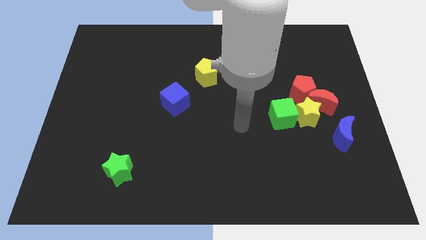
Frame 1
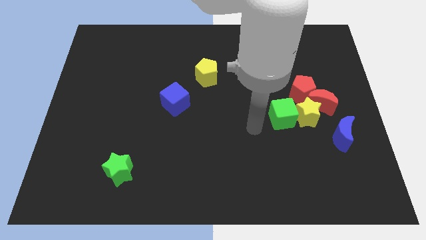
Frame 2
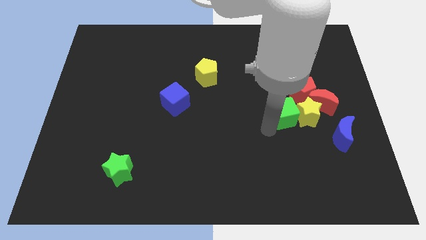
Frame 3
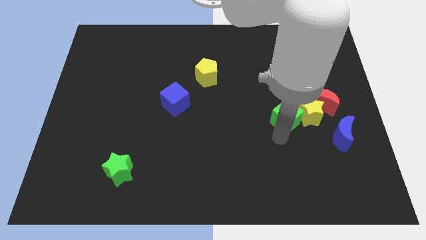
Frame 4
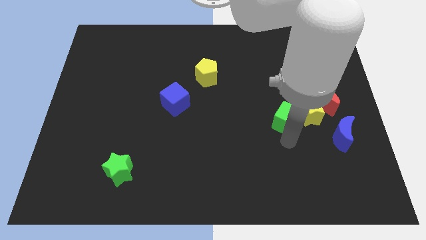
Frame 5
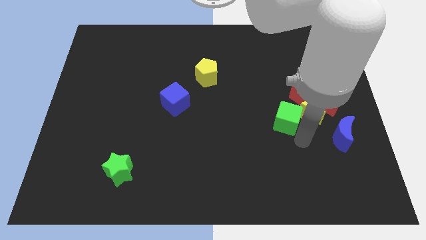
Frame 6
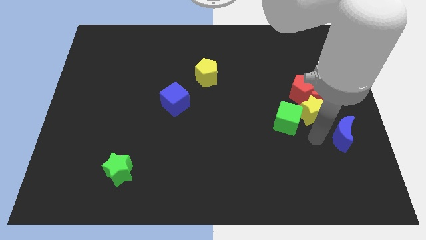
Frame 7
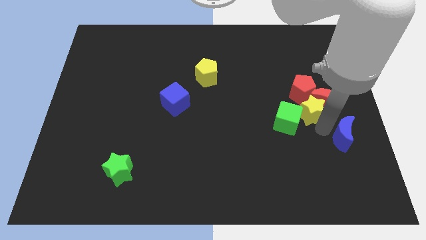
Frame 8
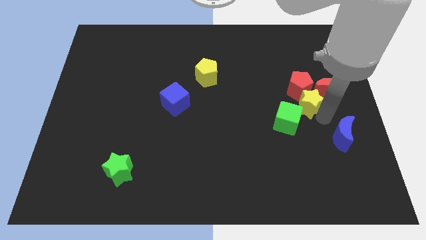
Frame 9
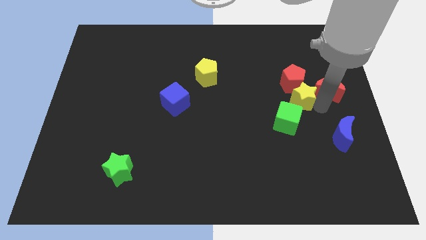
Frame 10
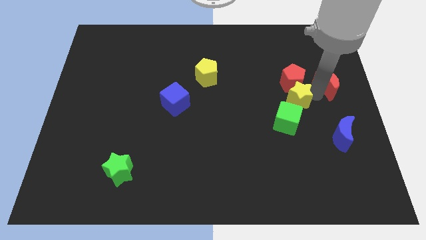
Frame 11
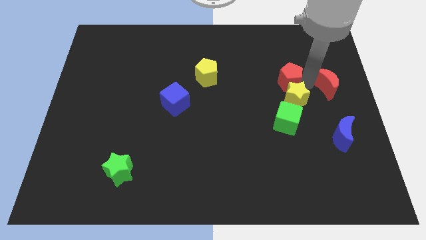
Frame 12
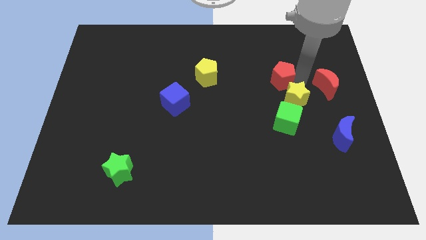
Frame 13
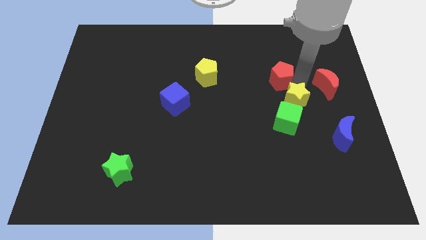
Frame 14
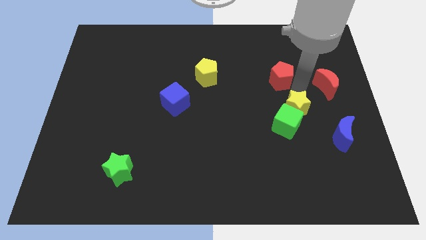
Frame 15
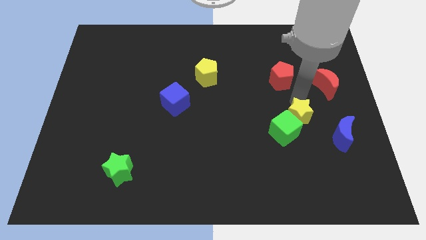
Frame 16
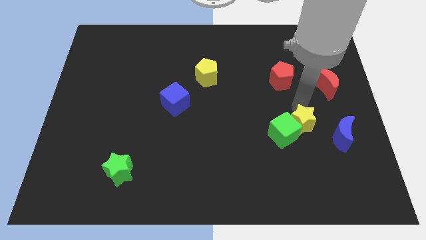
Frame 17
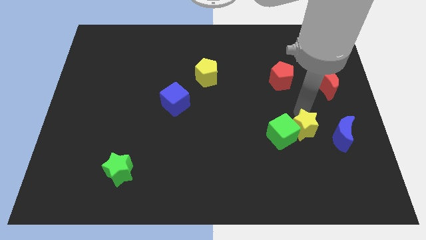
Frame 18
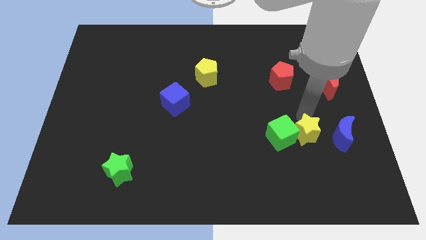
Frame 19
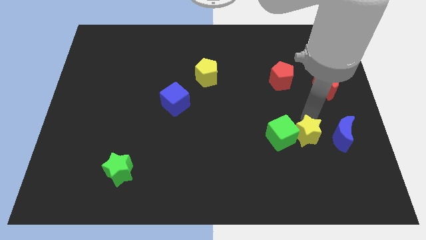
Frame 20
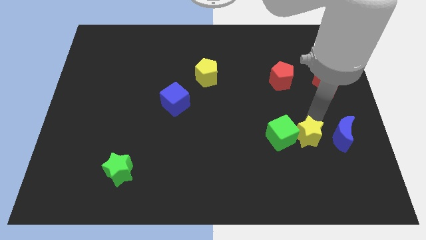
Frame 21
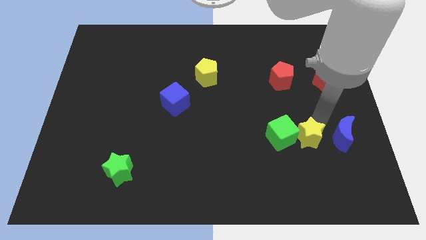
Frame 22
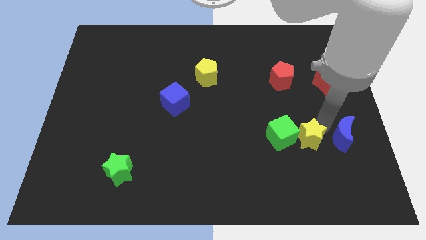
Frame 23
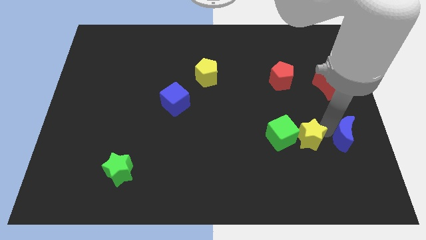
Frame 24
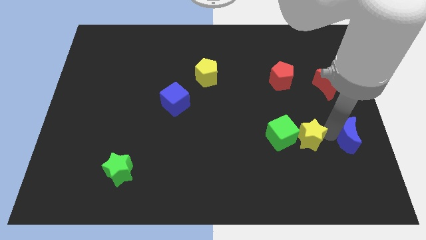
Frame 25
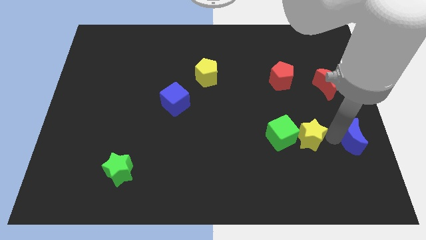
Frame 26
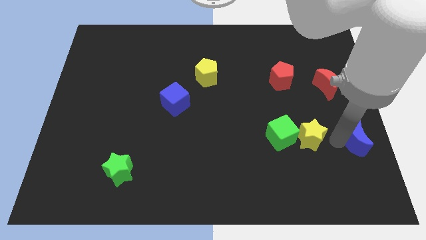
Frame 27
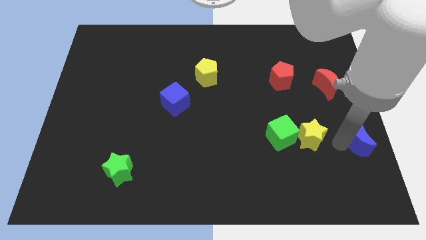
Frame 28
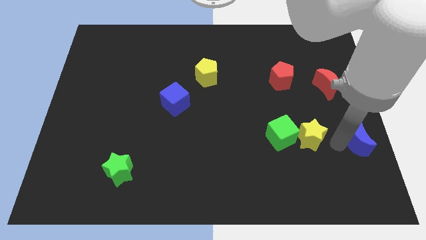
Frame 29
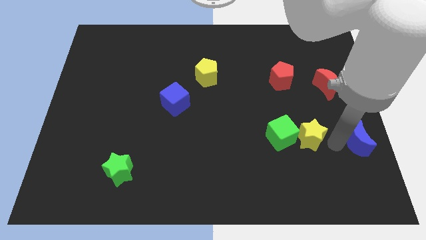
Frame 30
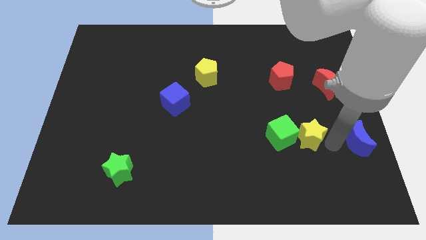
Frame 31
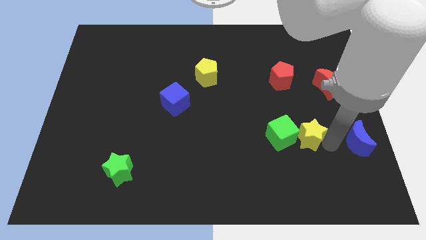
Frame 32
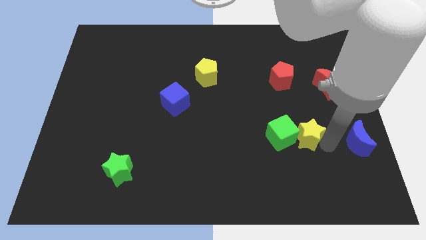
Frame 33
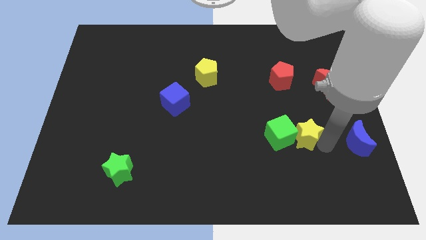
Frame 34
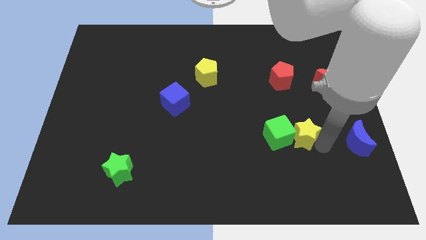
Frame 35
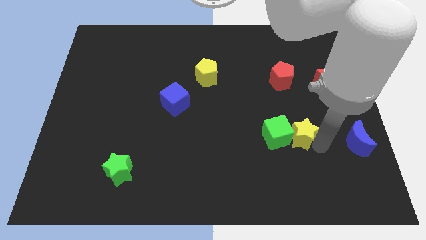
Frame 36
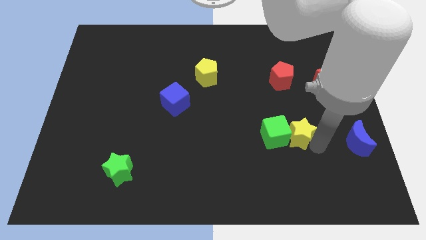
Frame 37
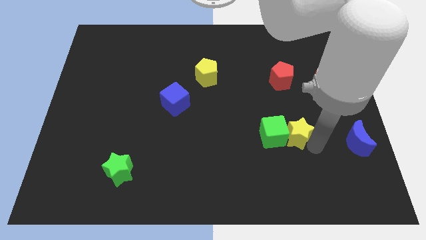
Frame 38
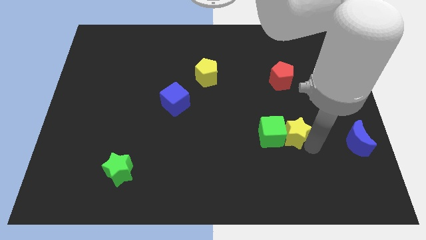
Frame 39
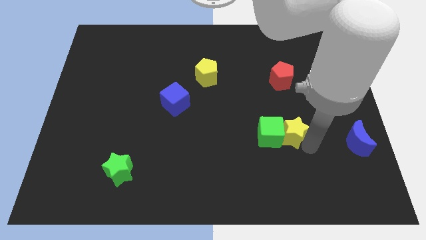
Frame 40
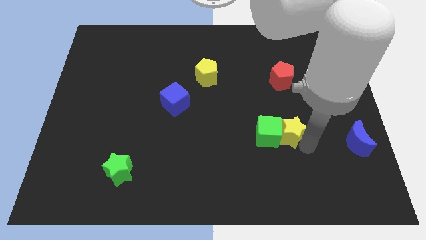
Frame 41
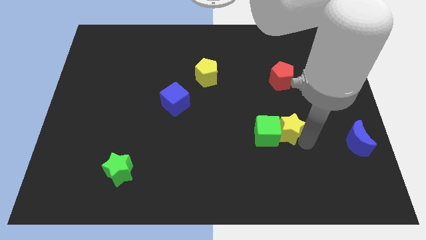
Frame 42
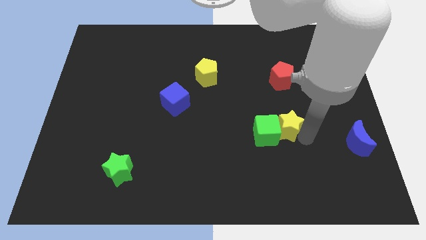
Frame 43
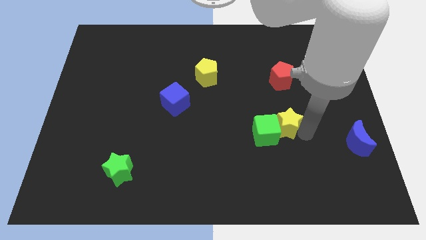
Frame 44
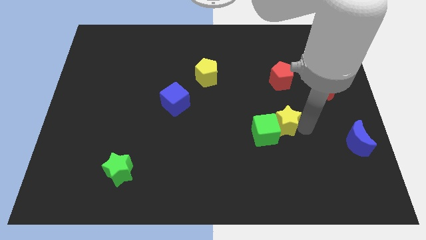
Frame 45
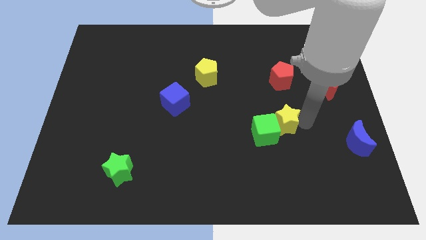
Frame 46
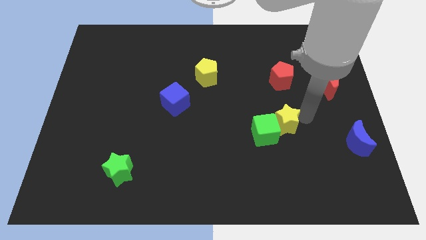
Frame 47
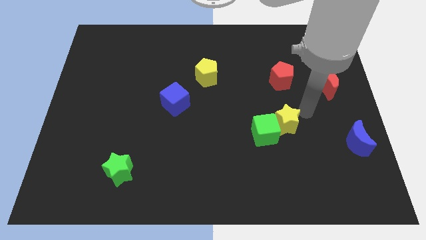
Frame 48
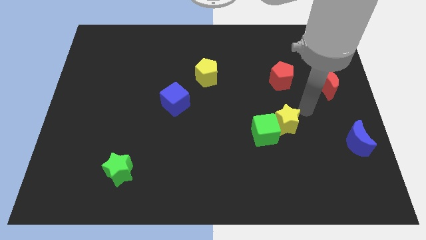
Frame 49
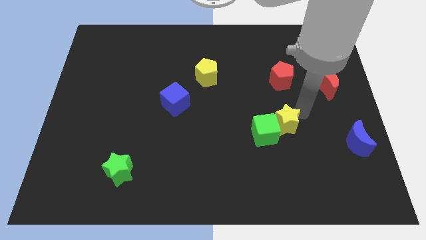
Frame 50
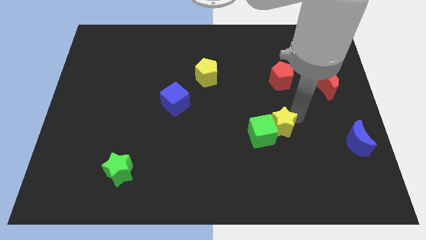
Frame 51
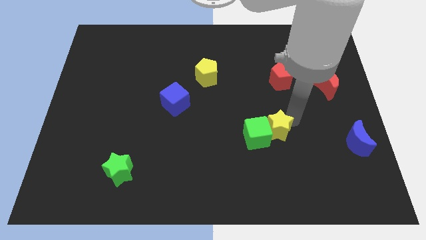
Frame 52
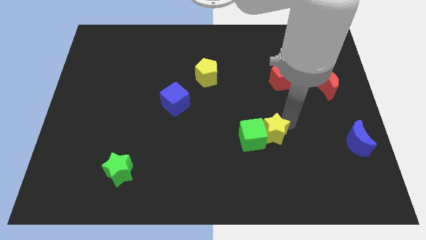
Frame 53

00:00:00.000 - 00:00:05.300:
move the yellow star away from the group

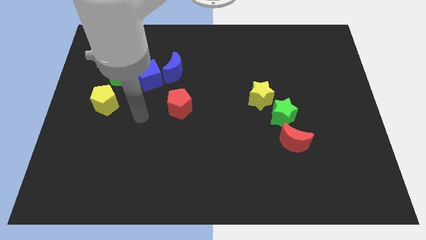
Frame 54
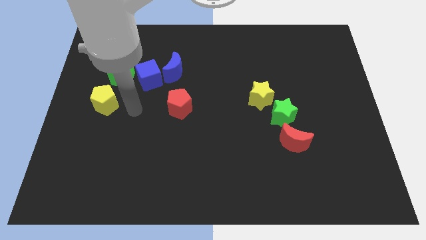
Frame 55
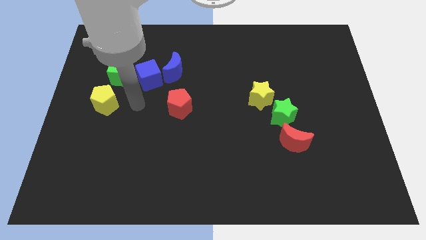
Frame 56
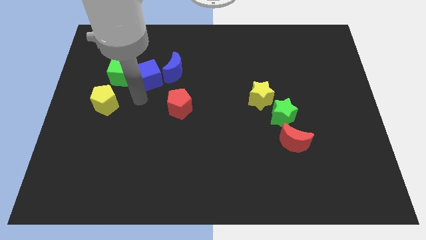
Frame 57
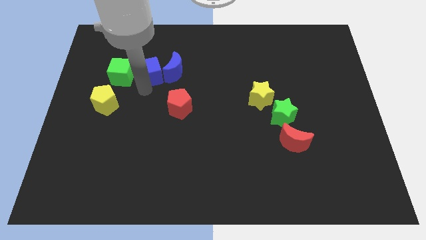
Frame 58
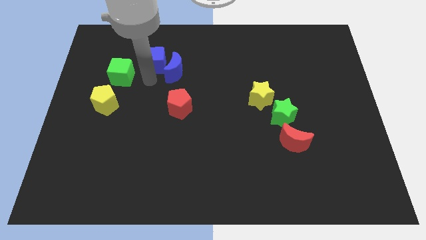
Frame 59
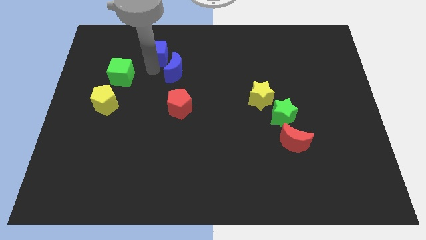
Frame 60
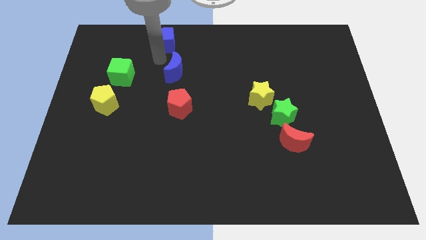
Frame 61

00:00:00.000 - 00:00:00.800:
move the blue moon away from the blue cube

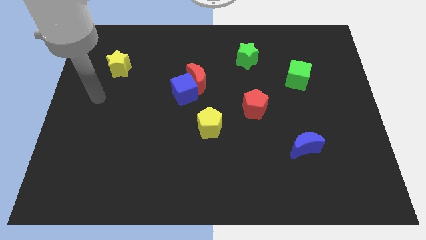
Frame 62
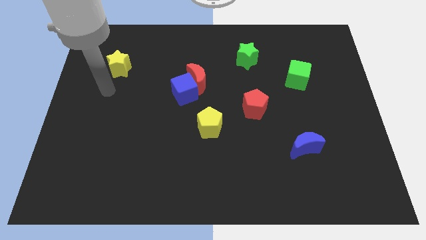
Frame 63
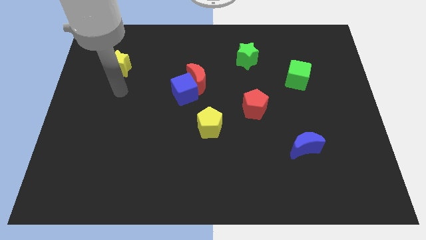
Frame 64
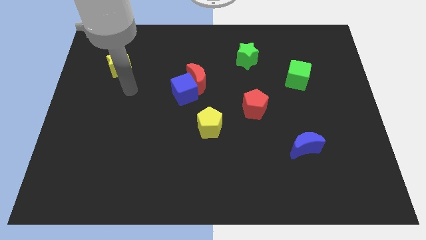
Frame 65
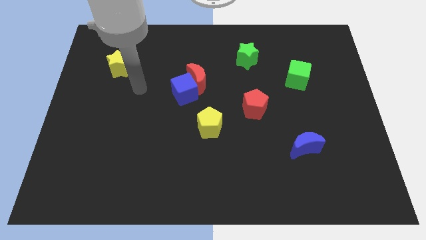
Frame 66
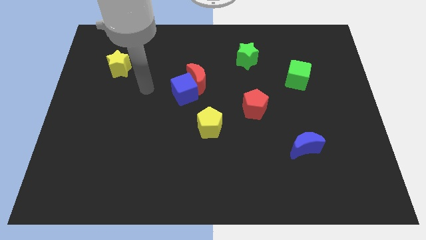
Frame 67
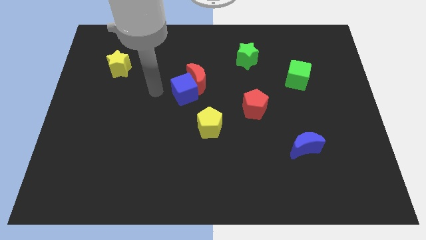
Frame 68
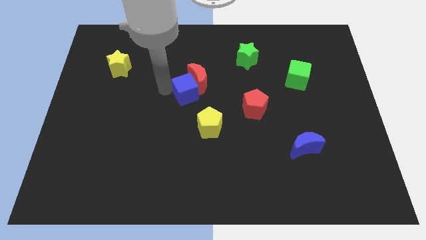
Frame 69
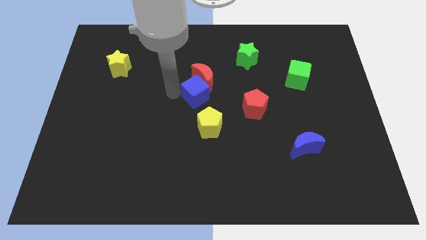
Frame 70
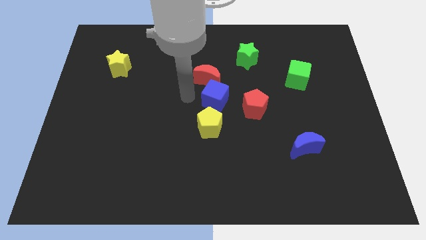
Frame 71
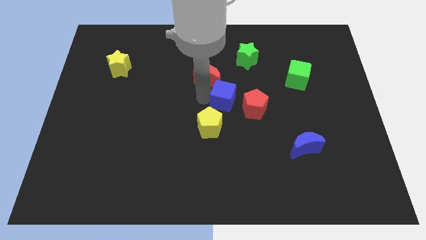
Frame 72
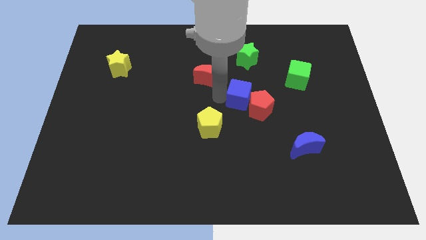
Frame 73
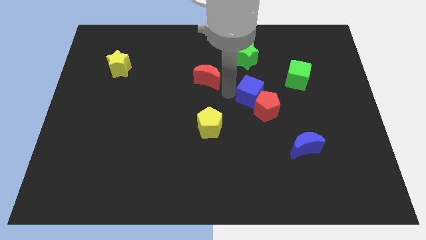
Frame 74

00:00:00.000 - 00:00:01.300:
separate the red moon from the blue cube

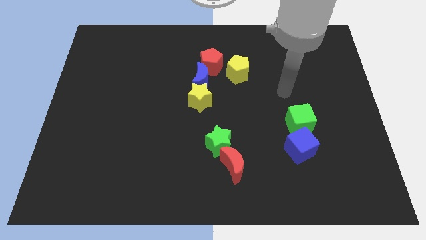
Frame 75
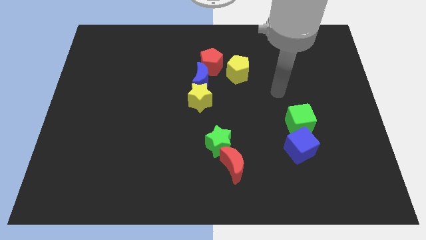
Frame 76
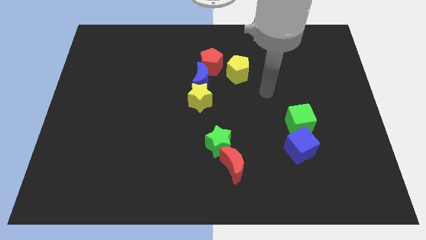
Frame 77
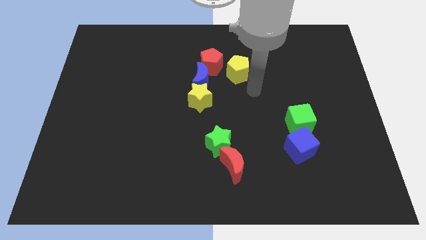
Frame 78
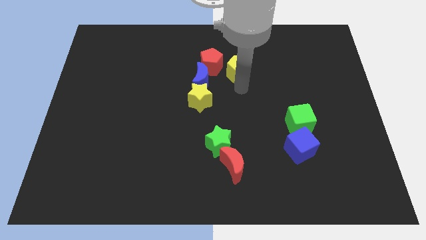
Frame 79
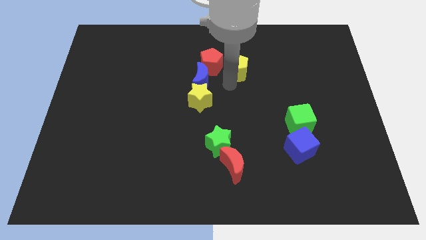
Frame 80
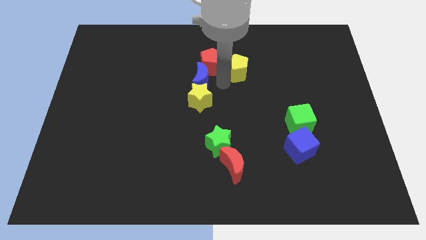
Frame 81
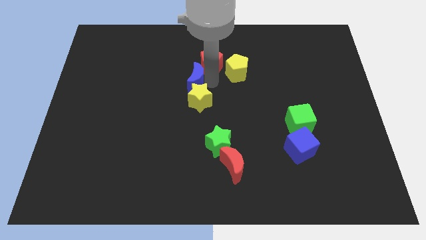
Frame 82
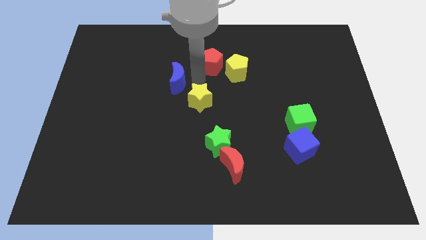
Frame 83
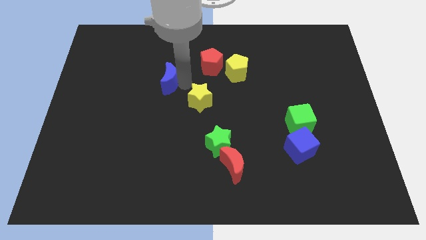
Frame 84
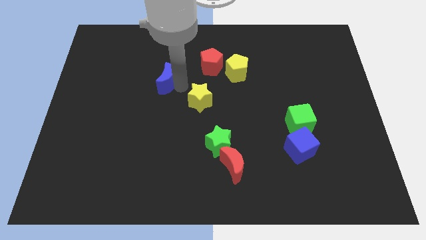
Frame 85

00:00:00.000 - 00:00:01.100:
pull the yellow star apart from the blue moon

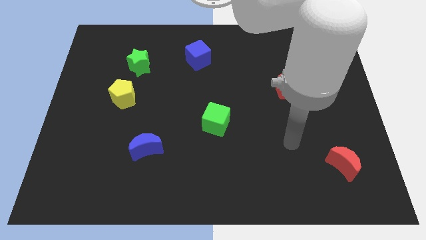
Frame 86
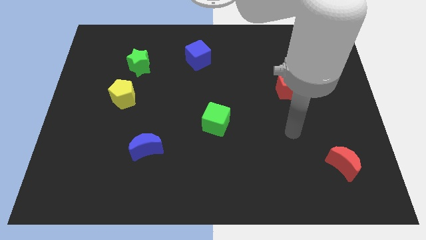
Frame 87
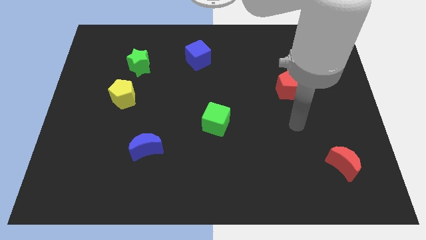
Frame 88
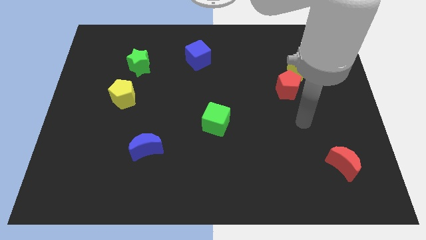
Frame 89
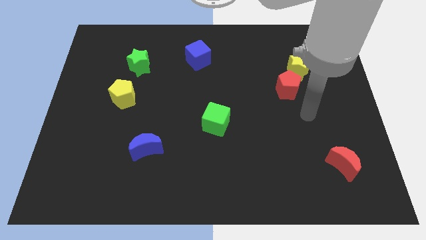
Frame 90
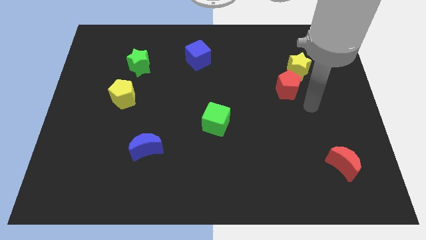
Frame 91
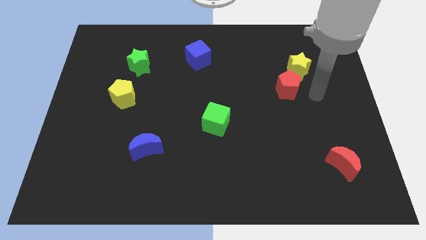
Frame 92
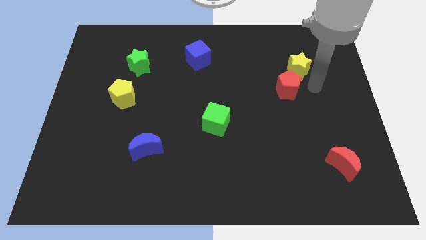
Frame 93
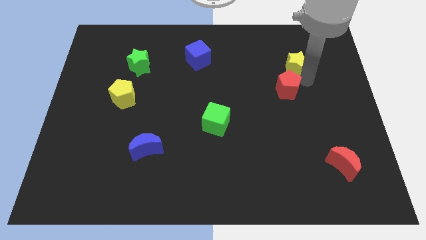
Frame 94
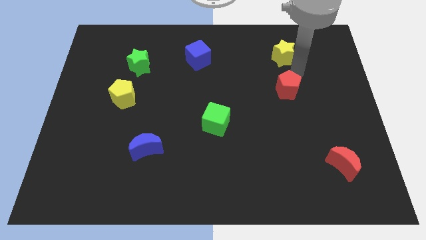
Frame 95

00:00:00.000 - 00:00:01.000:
move the red pentagon away from the yellow star
